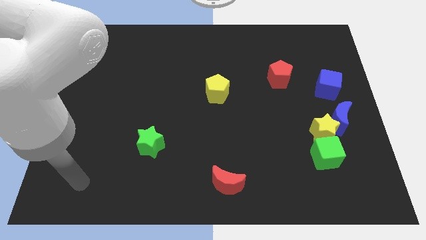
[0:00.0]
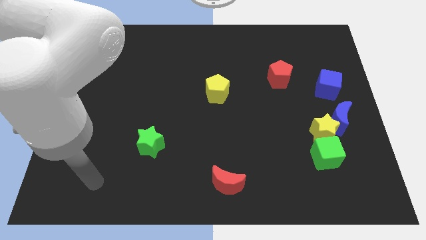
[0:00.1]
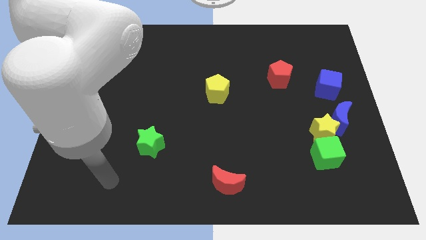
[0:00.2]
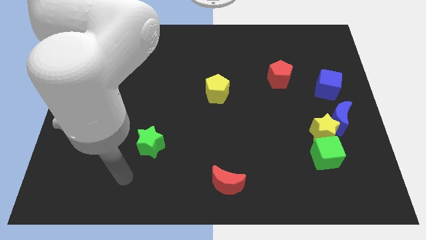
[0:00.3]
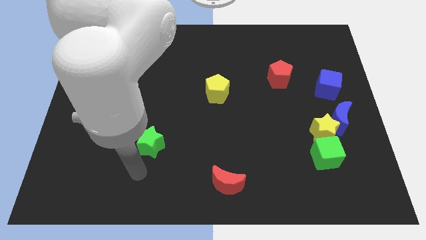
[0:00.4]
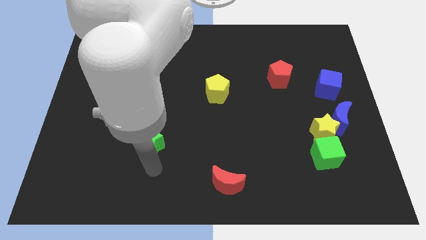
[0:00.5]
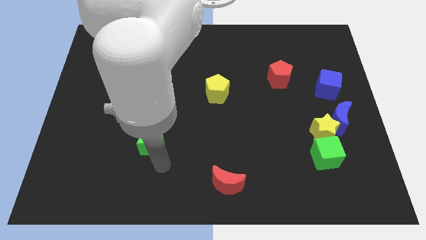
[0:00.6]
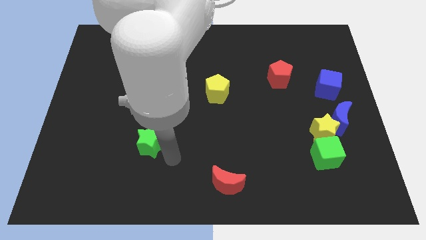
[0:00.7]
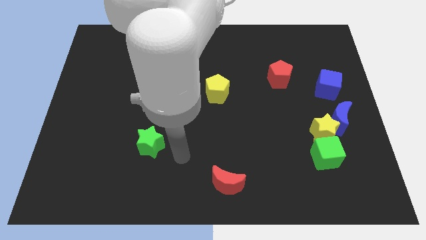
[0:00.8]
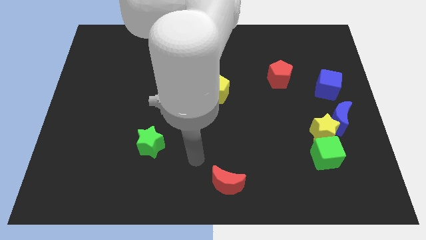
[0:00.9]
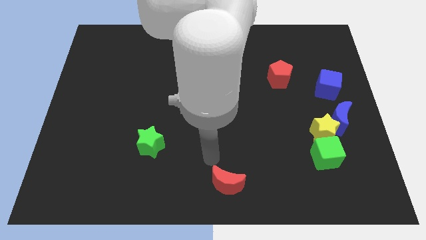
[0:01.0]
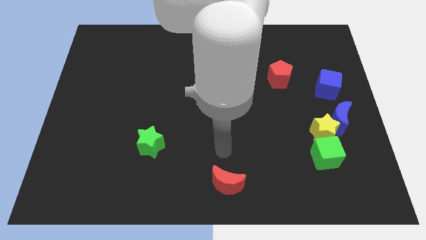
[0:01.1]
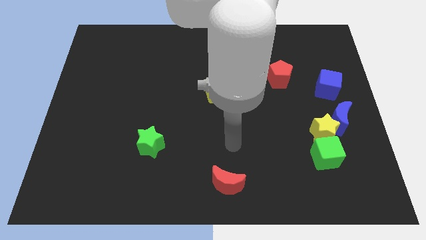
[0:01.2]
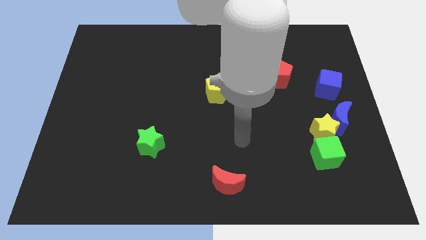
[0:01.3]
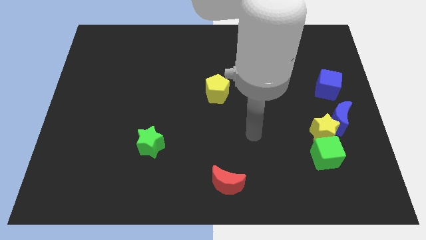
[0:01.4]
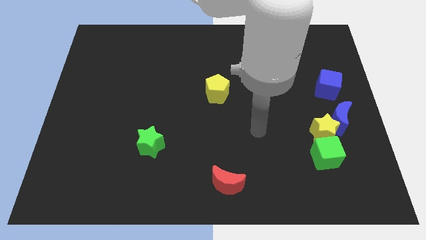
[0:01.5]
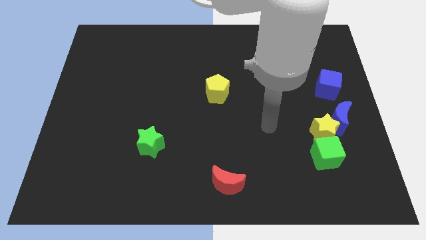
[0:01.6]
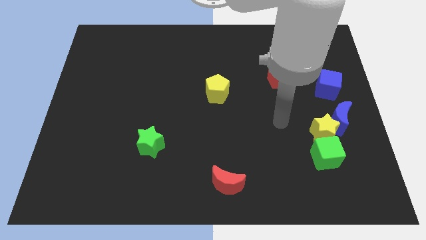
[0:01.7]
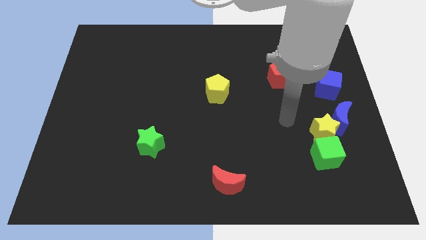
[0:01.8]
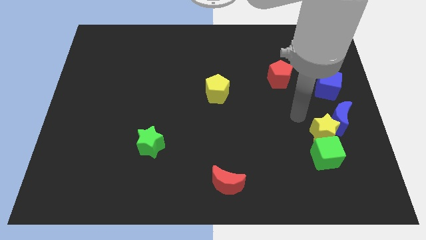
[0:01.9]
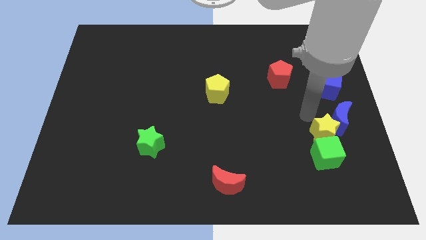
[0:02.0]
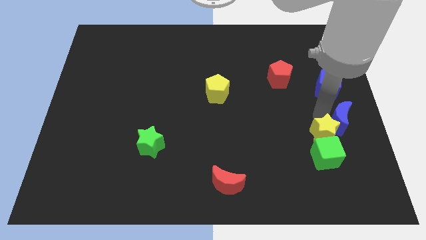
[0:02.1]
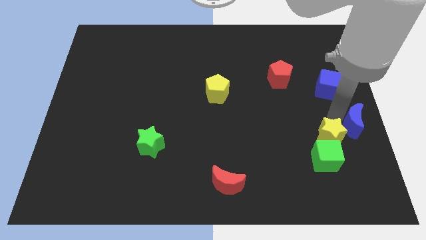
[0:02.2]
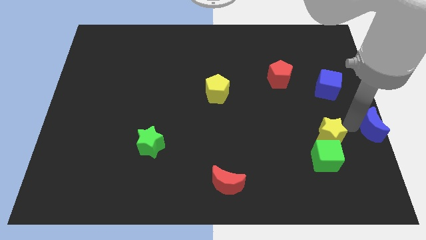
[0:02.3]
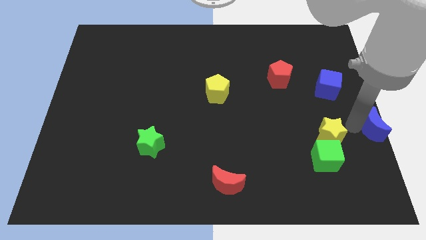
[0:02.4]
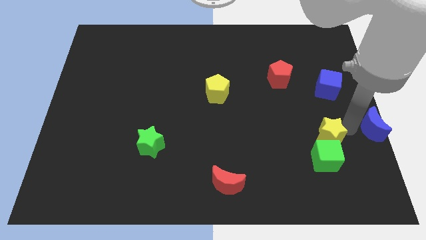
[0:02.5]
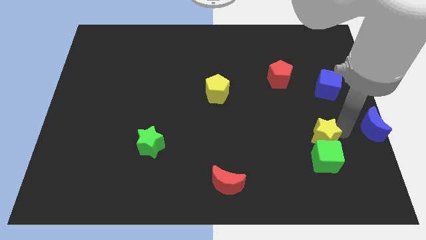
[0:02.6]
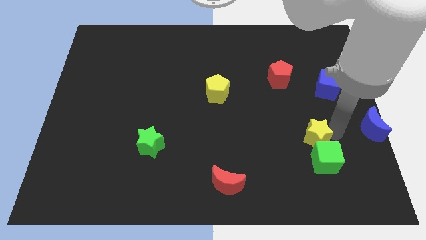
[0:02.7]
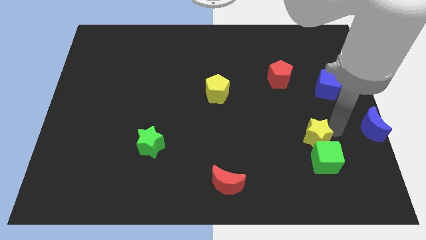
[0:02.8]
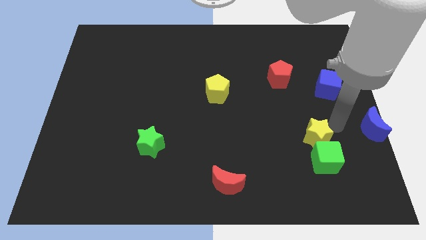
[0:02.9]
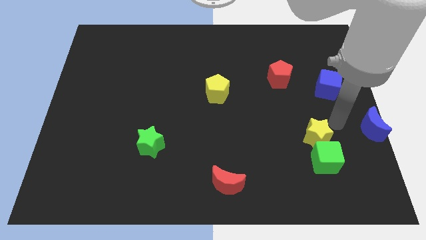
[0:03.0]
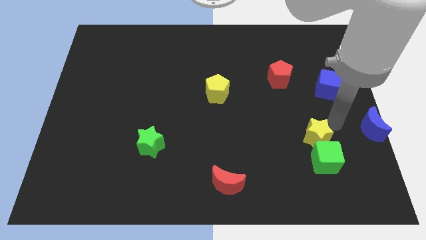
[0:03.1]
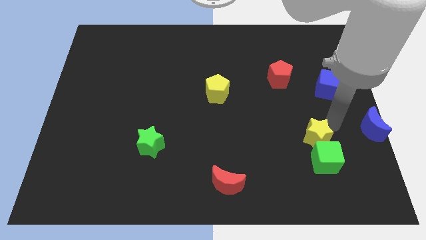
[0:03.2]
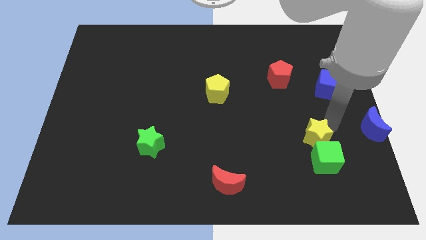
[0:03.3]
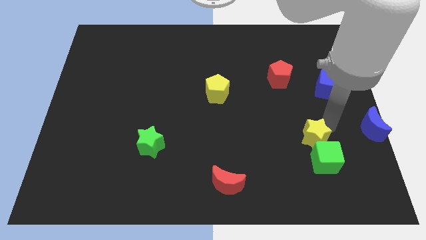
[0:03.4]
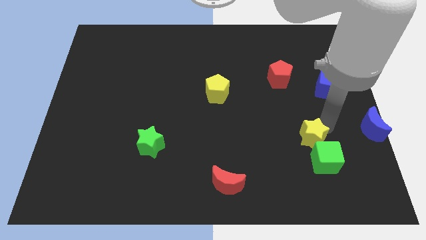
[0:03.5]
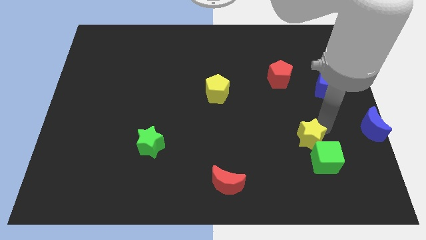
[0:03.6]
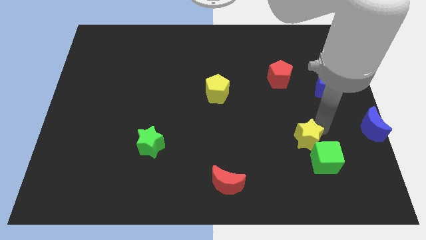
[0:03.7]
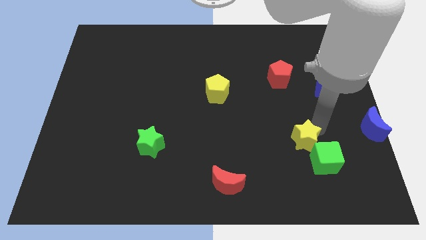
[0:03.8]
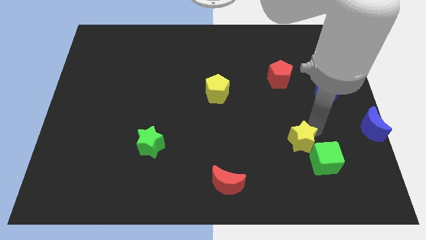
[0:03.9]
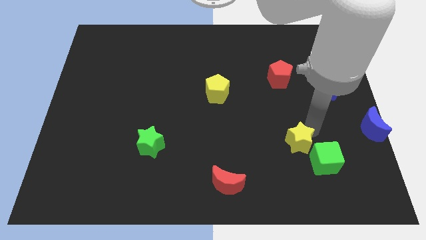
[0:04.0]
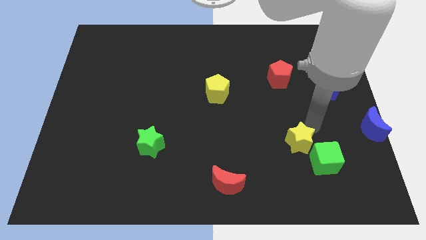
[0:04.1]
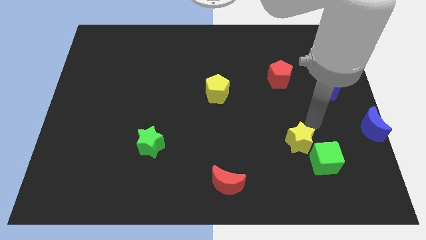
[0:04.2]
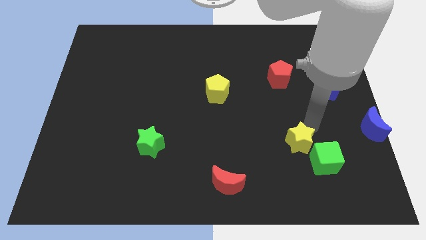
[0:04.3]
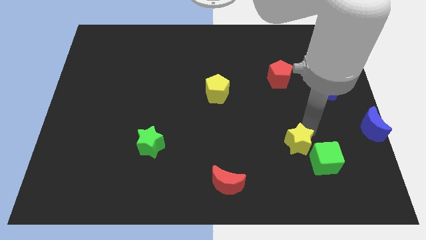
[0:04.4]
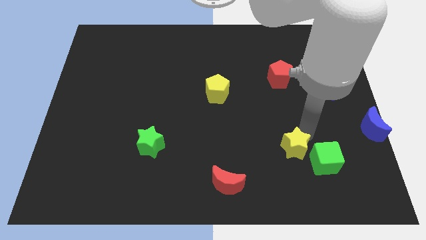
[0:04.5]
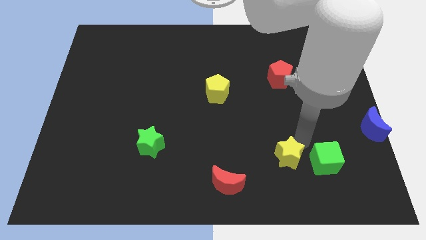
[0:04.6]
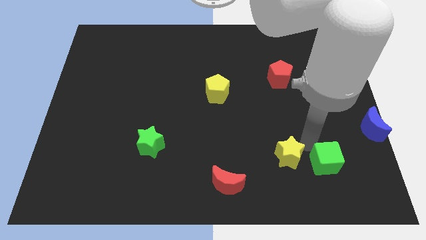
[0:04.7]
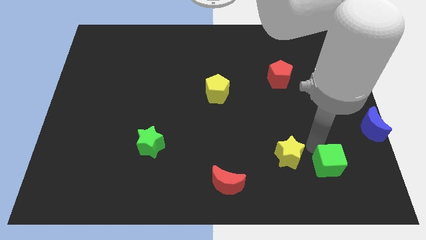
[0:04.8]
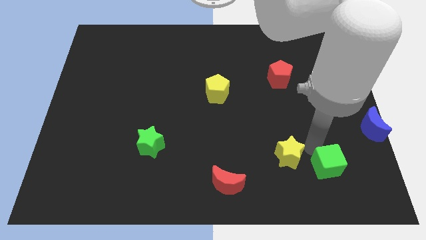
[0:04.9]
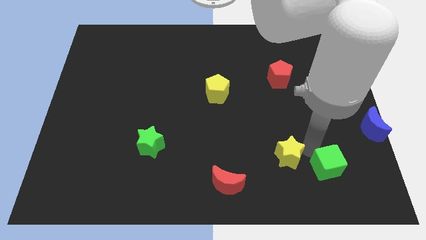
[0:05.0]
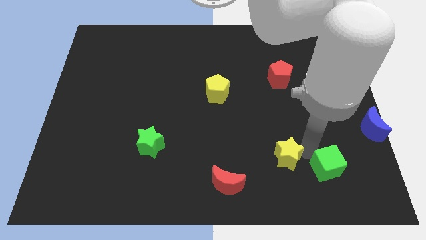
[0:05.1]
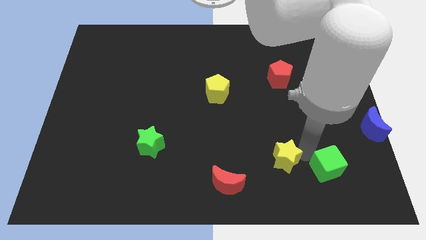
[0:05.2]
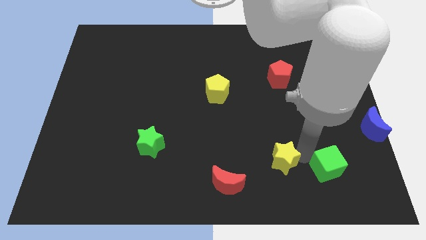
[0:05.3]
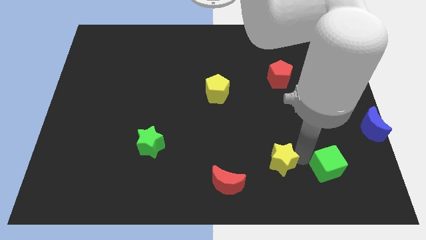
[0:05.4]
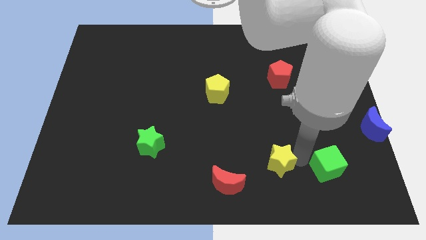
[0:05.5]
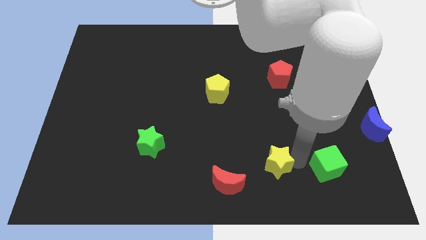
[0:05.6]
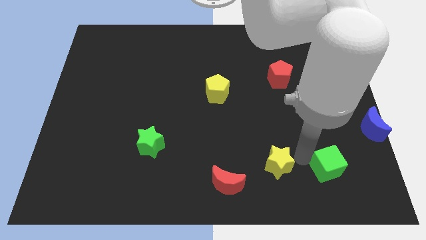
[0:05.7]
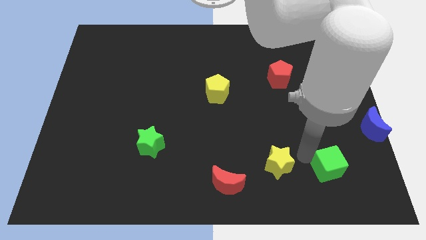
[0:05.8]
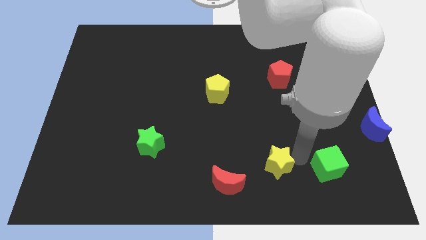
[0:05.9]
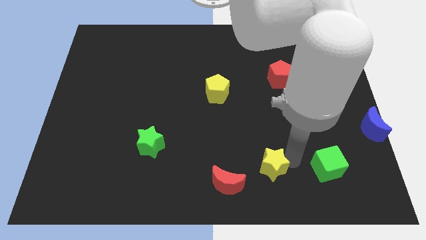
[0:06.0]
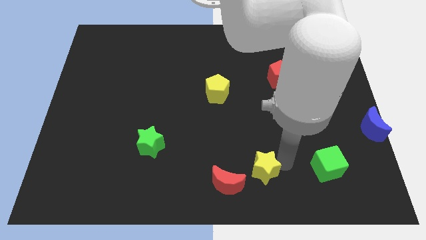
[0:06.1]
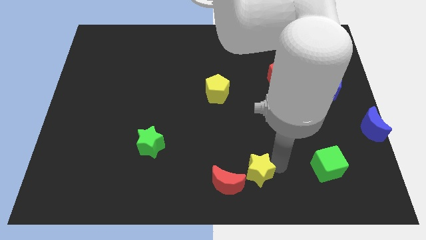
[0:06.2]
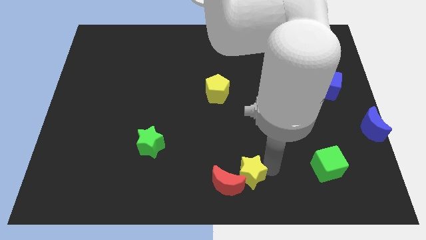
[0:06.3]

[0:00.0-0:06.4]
put the yellow star to the red moon
